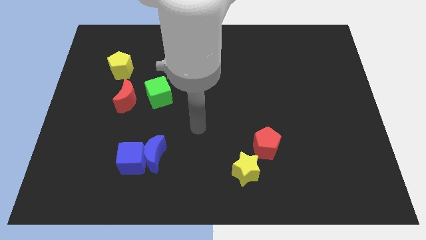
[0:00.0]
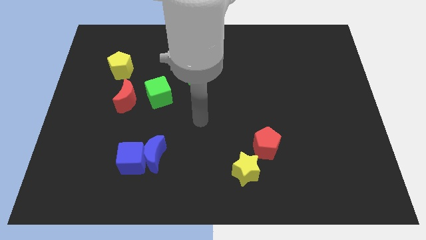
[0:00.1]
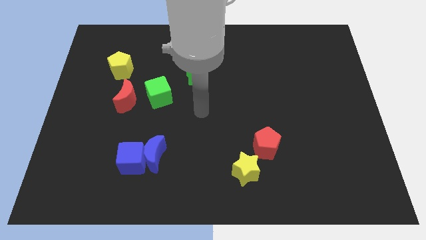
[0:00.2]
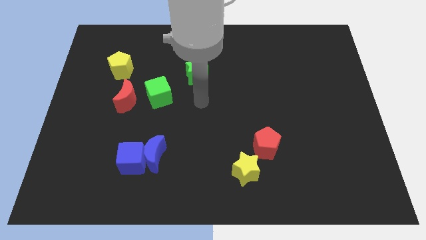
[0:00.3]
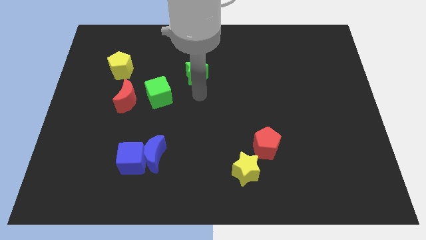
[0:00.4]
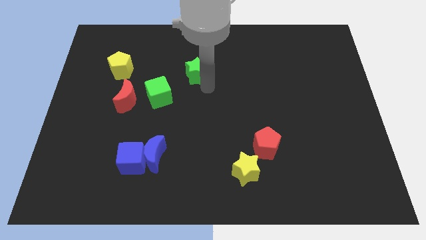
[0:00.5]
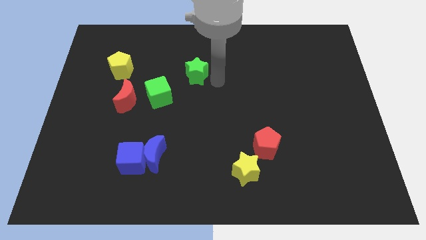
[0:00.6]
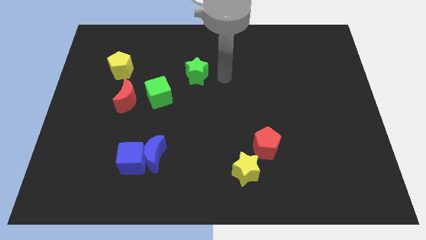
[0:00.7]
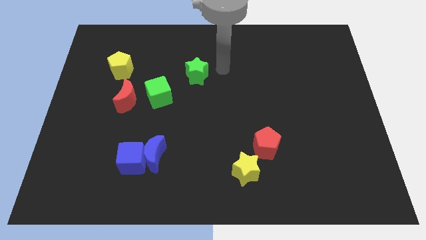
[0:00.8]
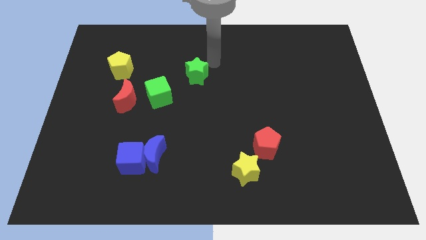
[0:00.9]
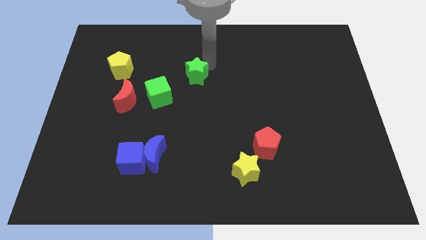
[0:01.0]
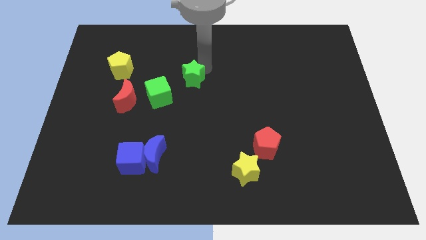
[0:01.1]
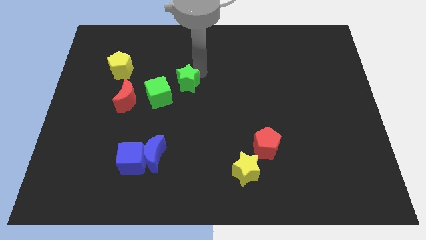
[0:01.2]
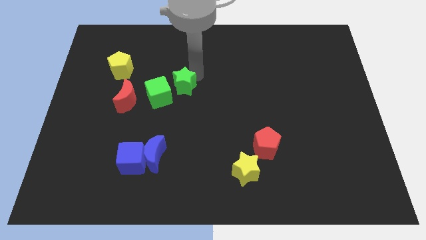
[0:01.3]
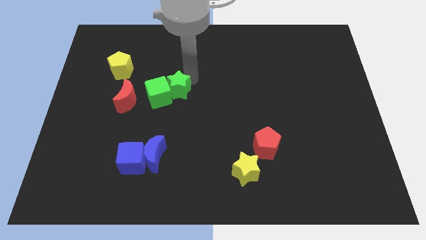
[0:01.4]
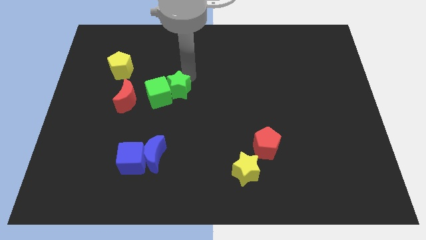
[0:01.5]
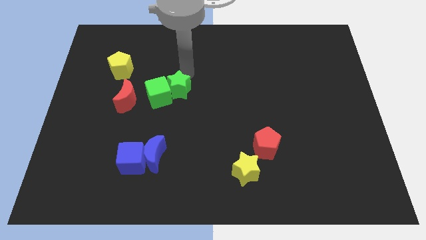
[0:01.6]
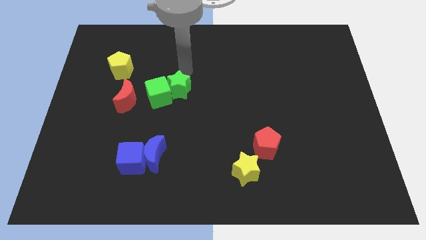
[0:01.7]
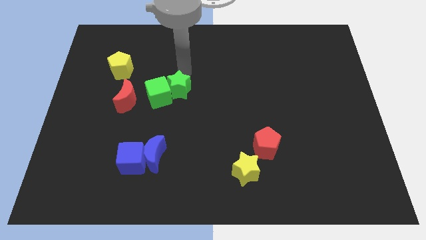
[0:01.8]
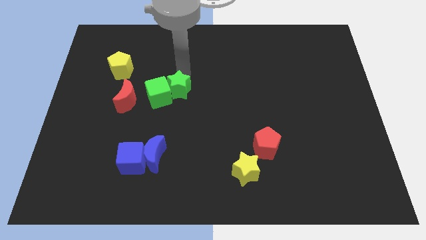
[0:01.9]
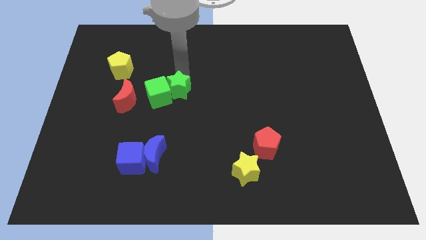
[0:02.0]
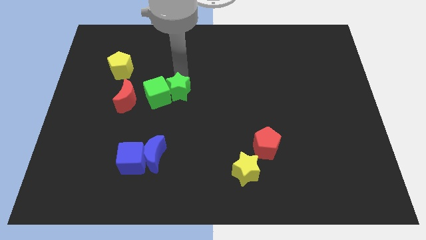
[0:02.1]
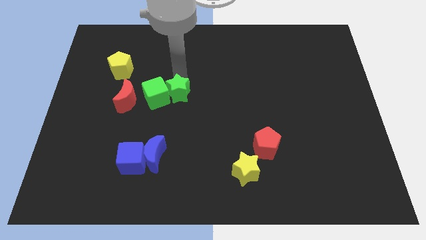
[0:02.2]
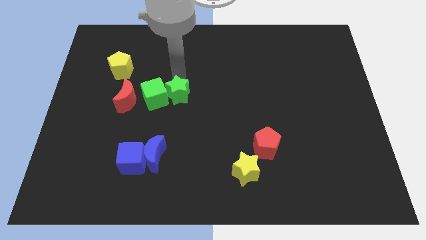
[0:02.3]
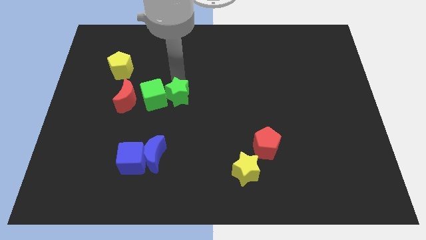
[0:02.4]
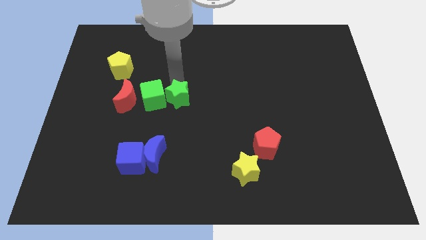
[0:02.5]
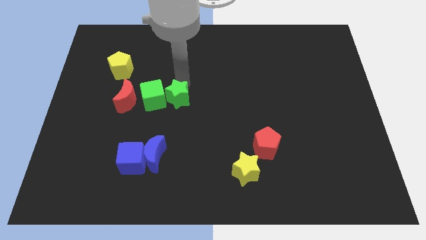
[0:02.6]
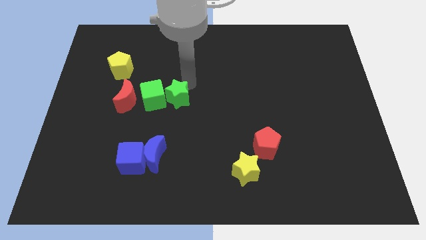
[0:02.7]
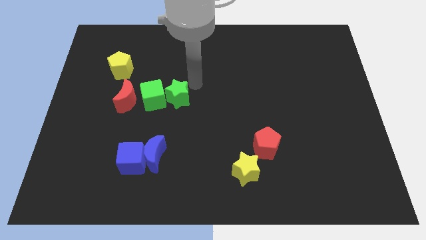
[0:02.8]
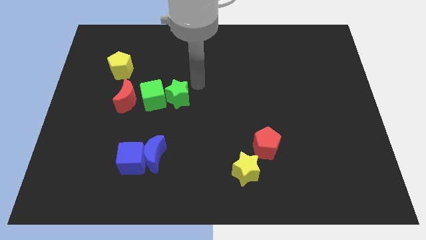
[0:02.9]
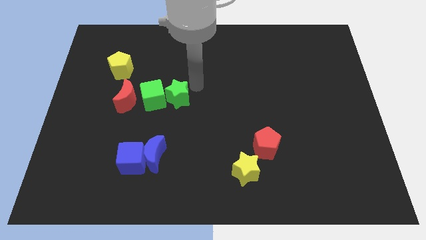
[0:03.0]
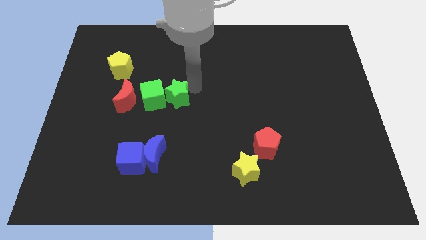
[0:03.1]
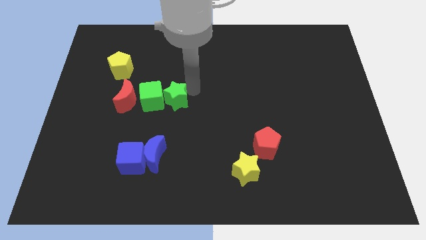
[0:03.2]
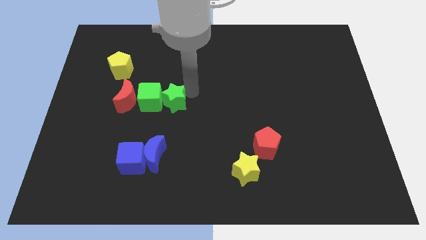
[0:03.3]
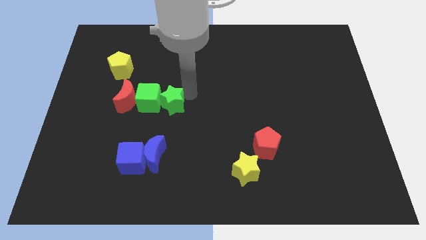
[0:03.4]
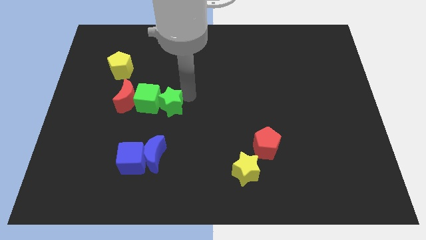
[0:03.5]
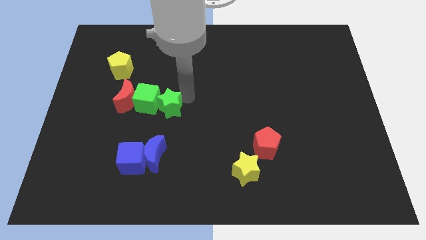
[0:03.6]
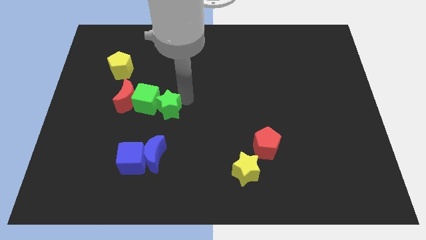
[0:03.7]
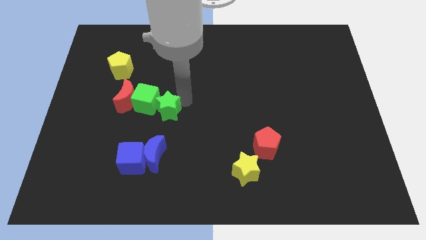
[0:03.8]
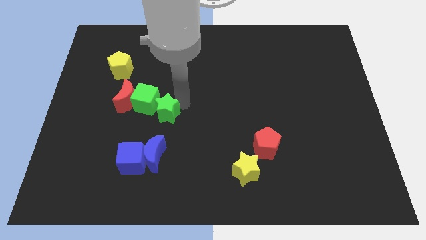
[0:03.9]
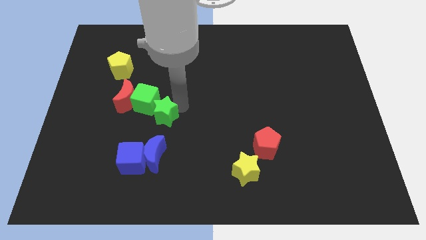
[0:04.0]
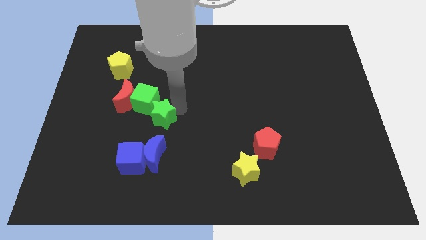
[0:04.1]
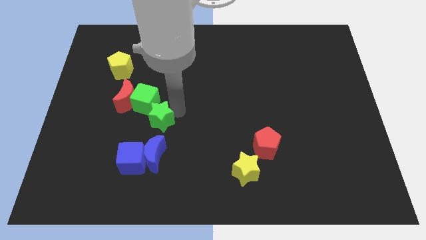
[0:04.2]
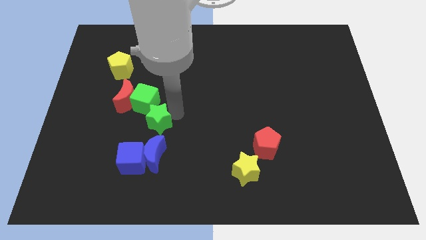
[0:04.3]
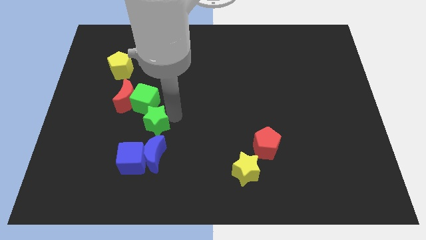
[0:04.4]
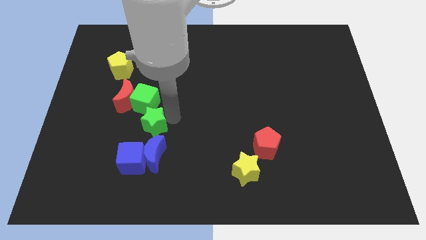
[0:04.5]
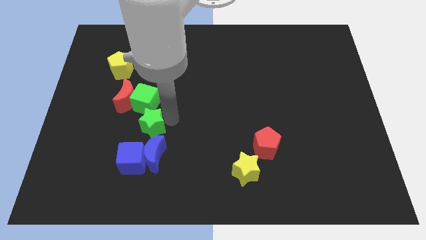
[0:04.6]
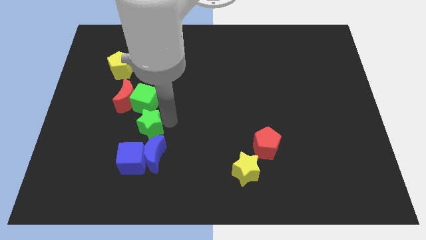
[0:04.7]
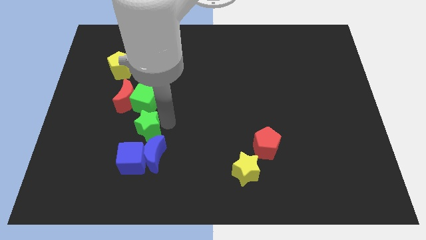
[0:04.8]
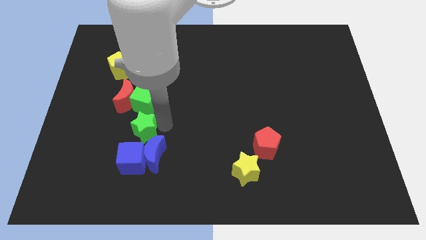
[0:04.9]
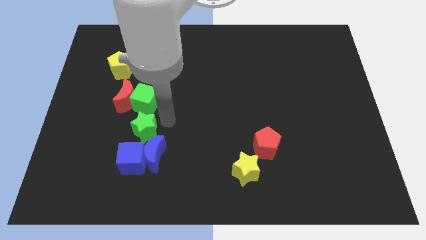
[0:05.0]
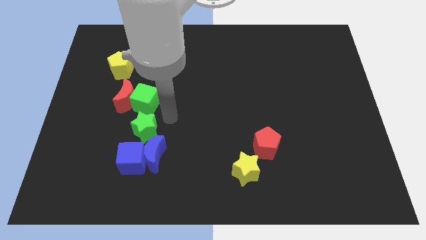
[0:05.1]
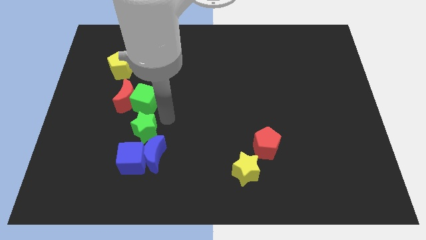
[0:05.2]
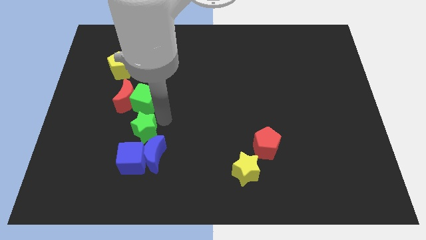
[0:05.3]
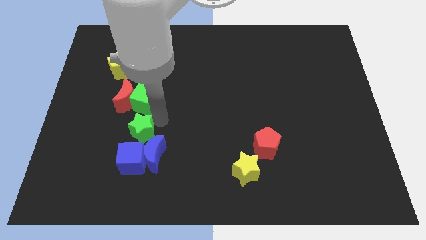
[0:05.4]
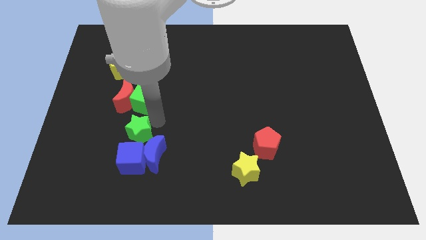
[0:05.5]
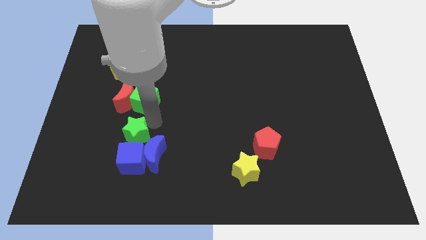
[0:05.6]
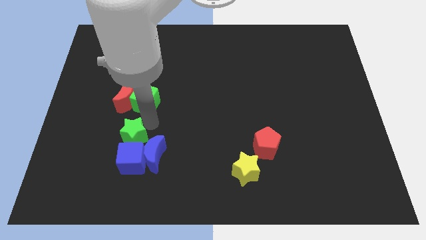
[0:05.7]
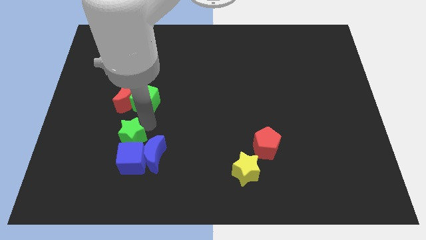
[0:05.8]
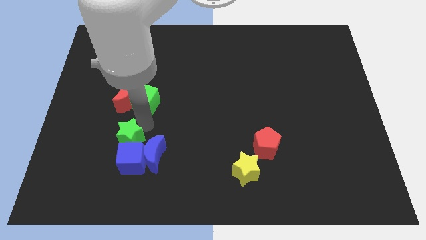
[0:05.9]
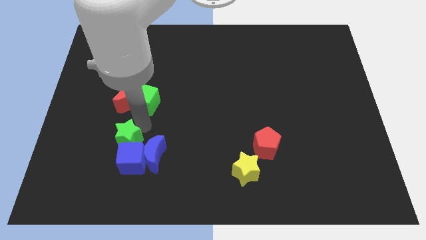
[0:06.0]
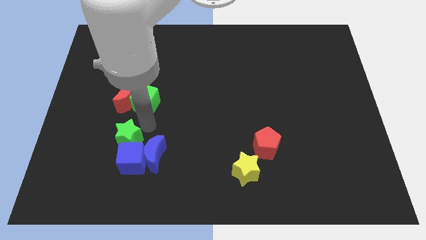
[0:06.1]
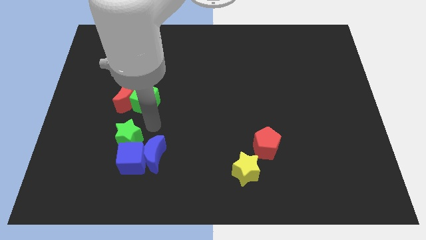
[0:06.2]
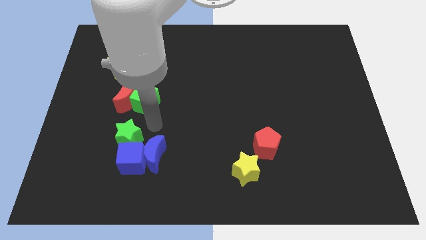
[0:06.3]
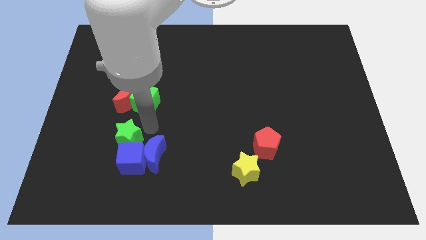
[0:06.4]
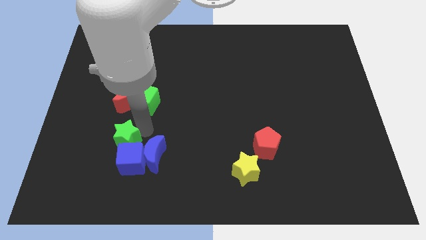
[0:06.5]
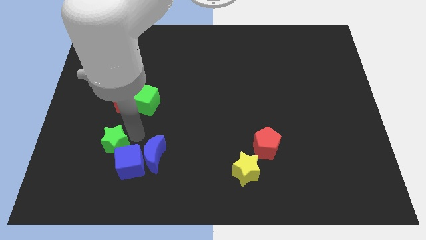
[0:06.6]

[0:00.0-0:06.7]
put the green star to the left side of the blue cube

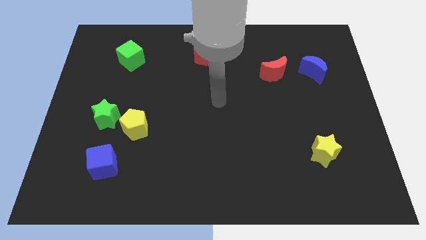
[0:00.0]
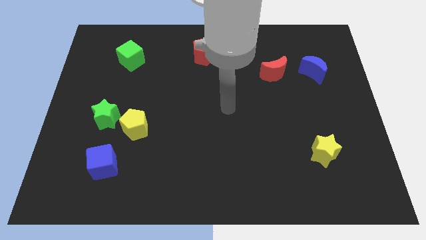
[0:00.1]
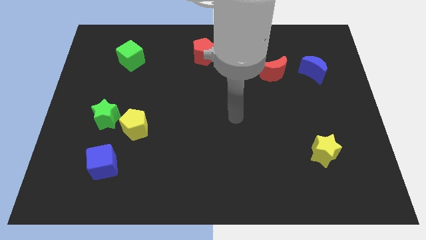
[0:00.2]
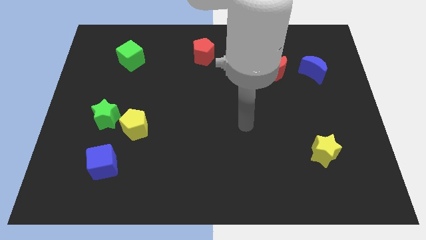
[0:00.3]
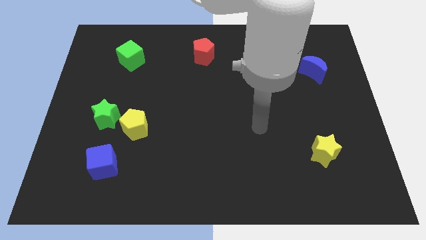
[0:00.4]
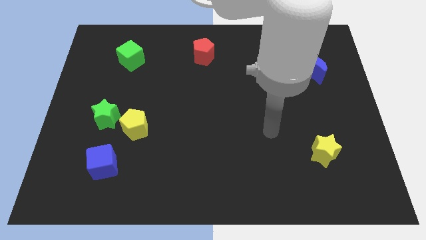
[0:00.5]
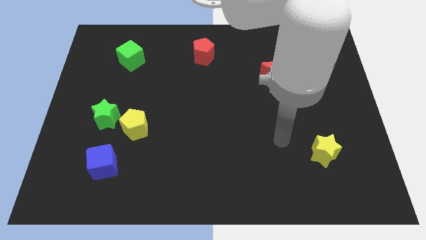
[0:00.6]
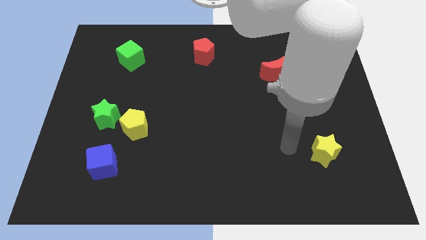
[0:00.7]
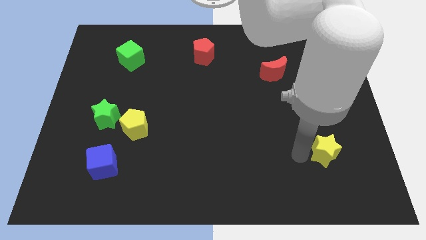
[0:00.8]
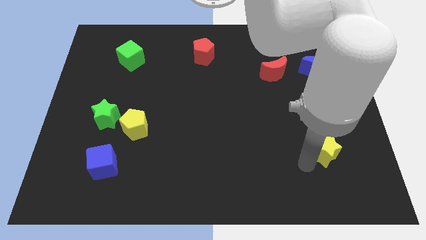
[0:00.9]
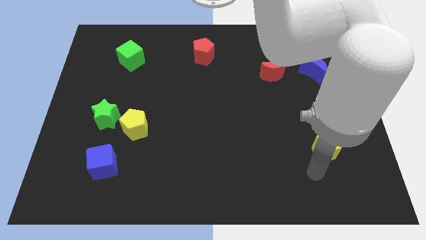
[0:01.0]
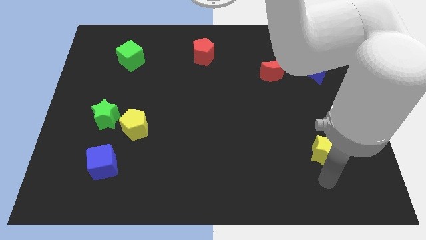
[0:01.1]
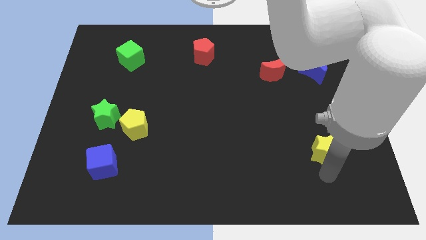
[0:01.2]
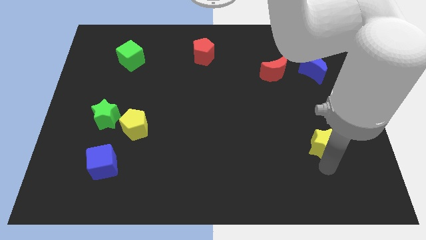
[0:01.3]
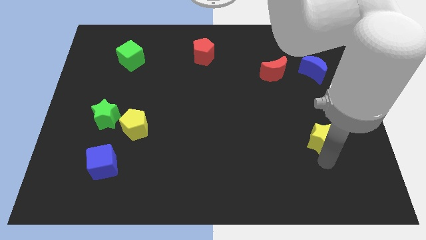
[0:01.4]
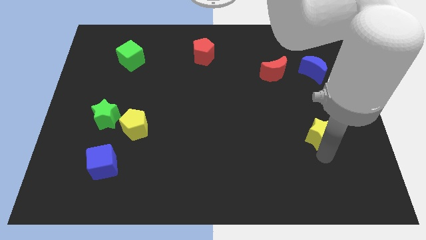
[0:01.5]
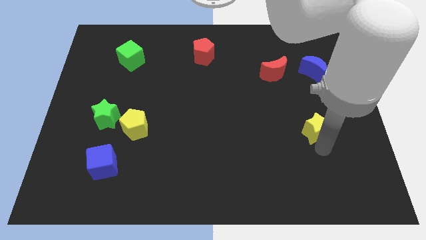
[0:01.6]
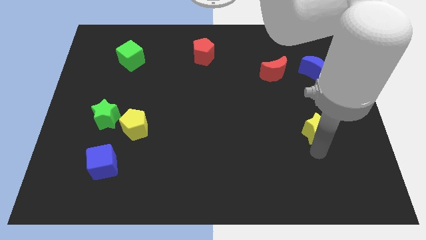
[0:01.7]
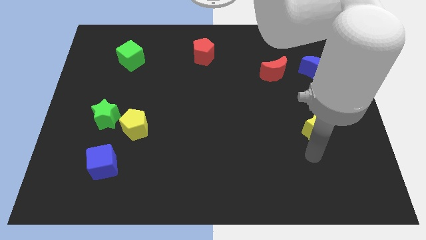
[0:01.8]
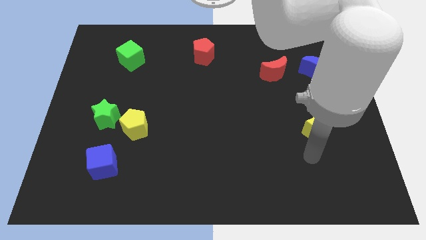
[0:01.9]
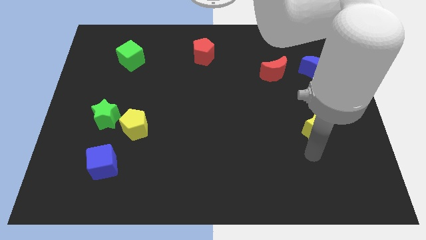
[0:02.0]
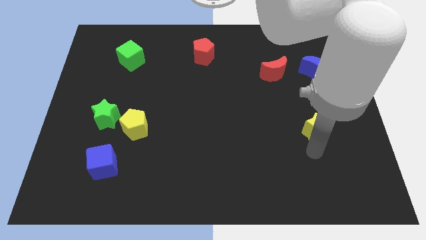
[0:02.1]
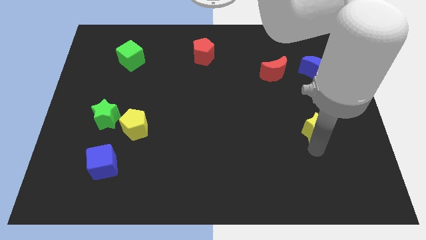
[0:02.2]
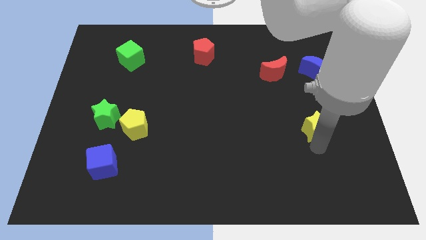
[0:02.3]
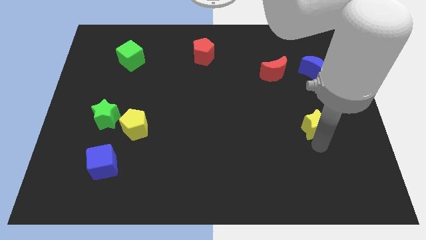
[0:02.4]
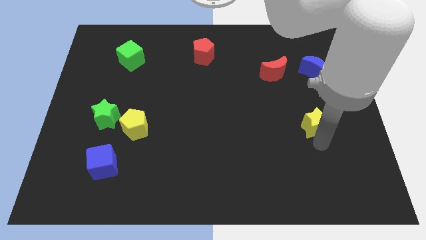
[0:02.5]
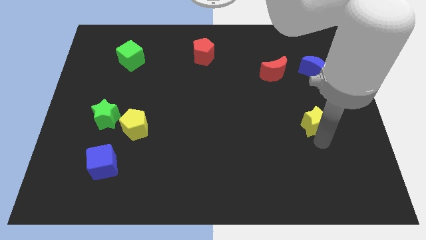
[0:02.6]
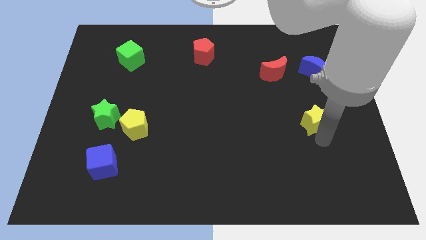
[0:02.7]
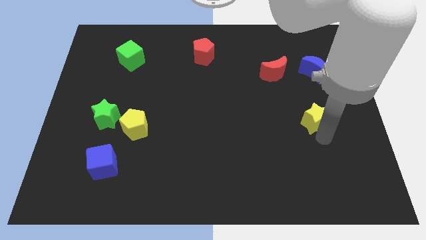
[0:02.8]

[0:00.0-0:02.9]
slide the yellow star below the blue moon
